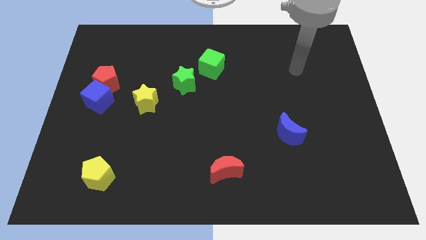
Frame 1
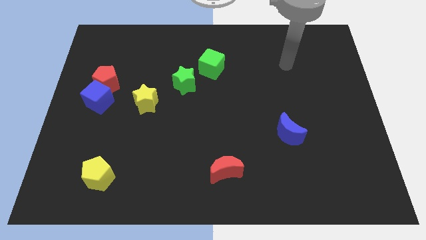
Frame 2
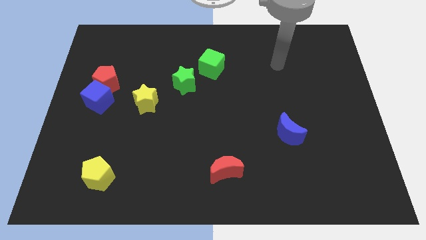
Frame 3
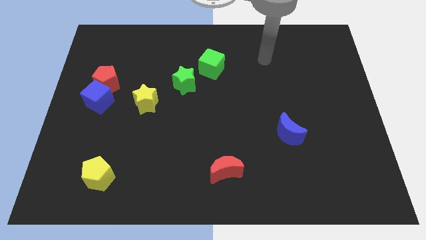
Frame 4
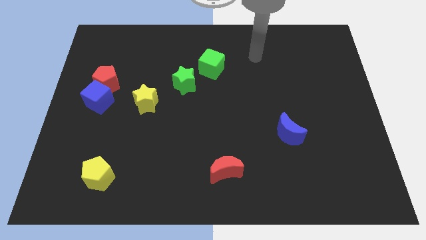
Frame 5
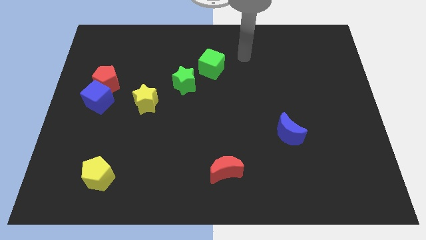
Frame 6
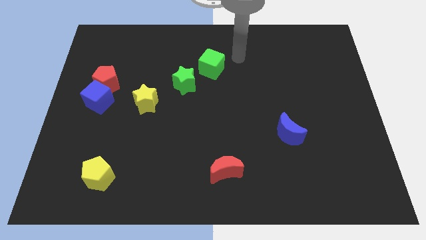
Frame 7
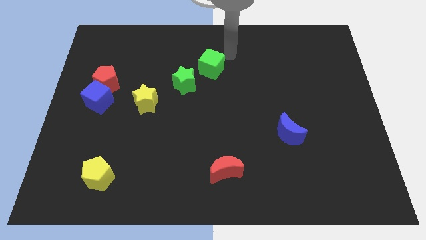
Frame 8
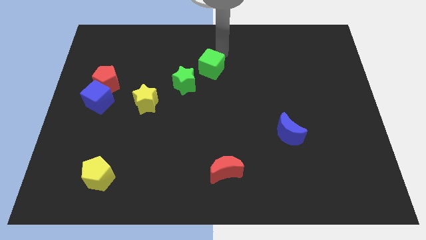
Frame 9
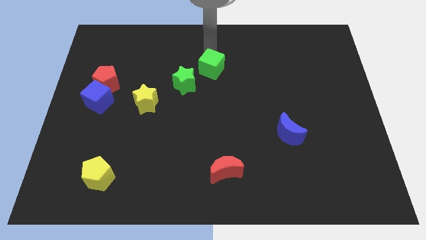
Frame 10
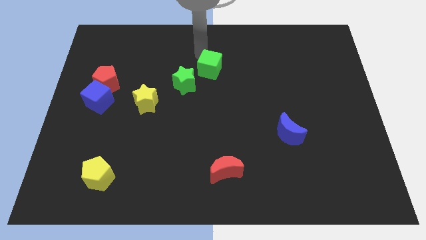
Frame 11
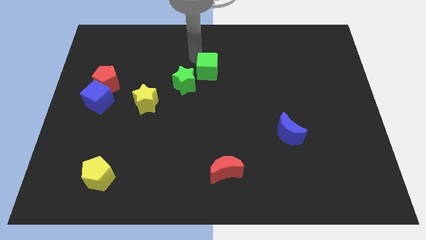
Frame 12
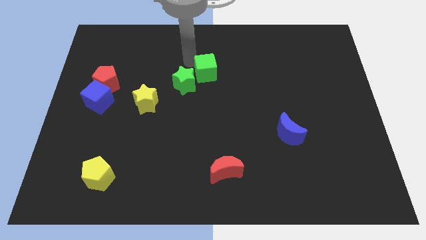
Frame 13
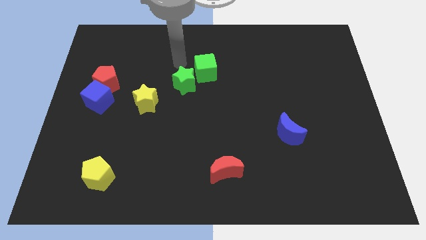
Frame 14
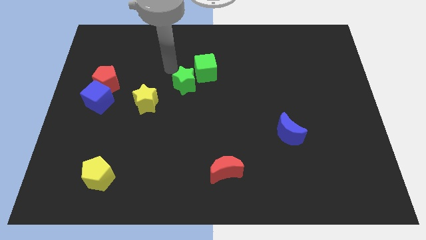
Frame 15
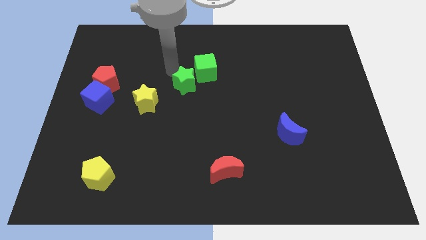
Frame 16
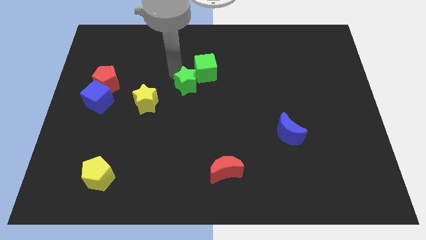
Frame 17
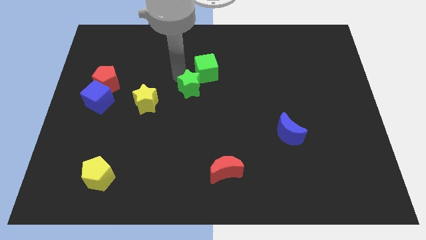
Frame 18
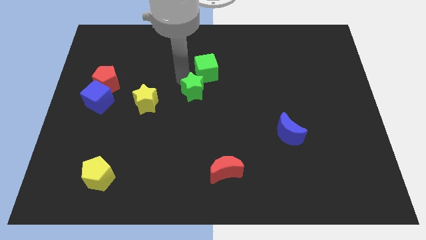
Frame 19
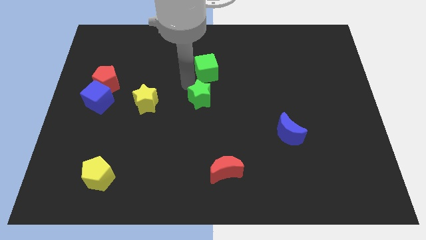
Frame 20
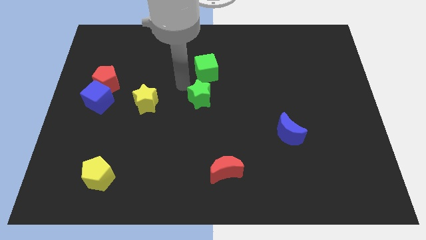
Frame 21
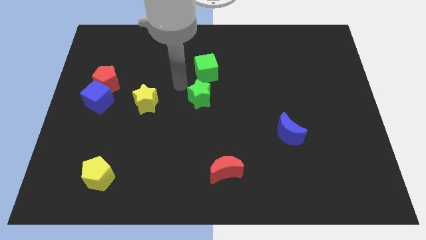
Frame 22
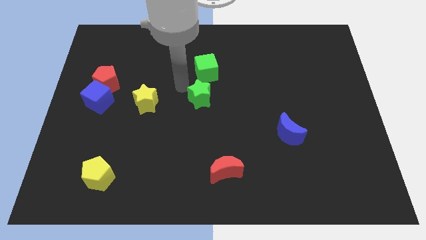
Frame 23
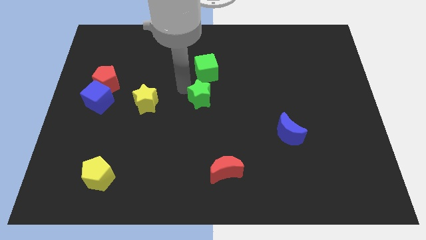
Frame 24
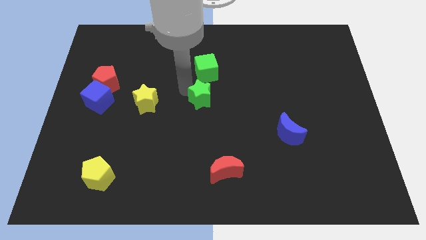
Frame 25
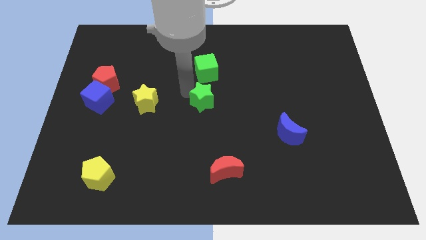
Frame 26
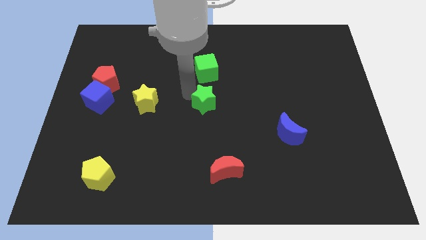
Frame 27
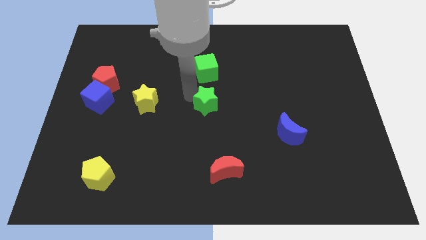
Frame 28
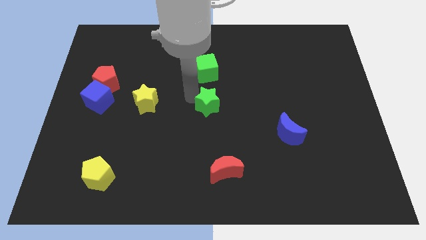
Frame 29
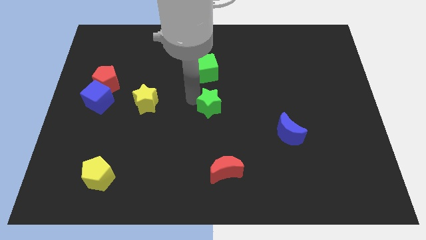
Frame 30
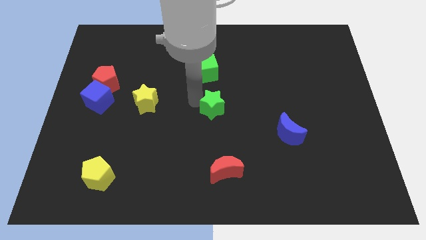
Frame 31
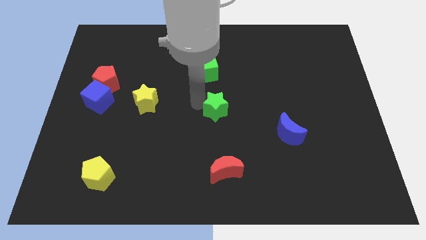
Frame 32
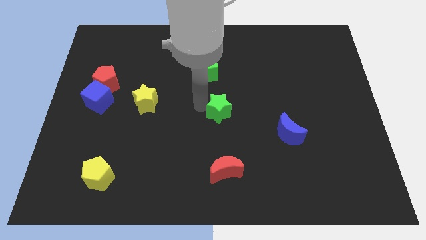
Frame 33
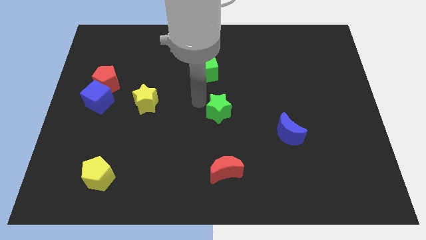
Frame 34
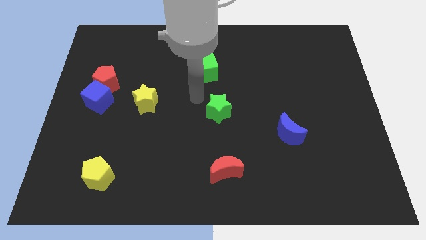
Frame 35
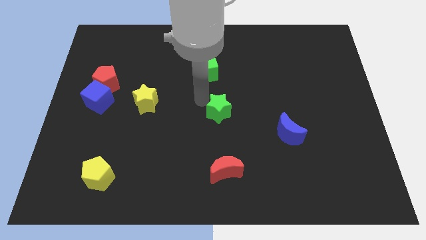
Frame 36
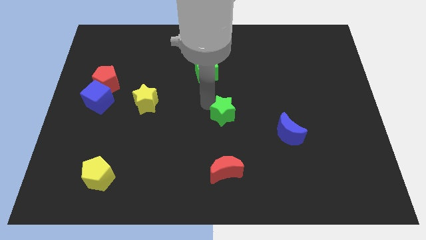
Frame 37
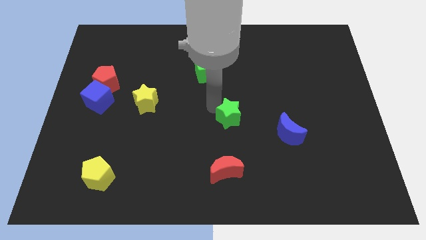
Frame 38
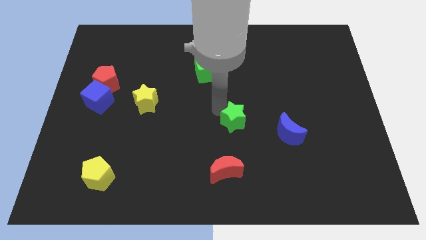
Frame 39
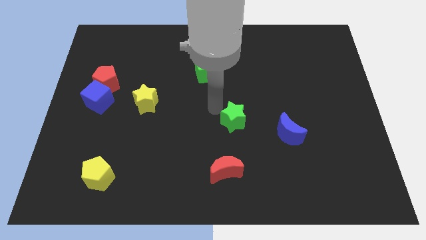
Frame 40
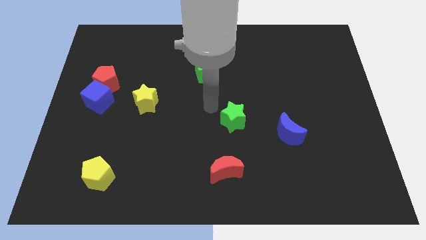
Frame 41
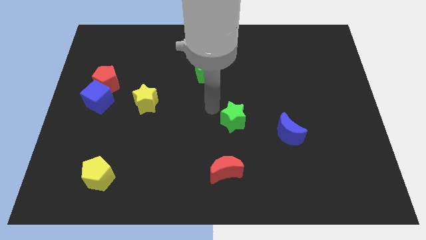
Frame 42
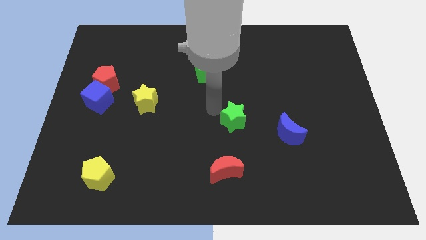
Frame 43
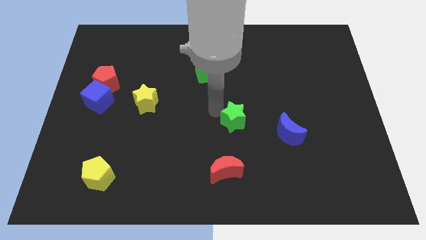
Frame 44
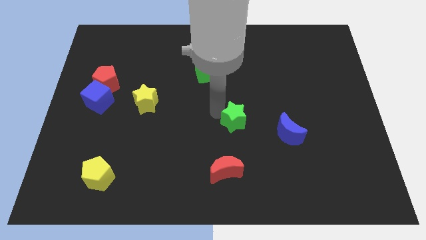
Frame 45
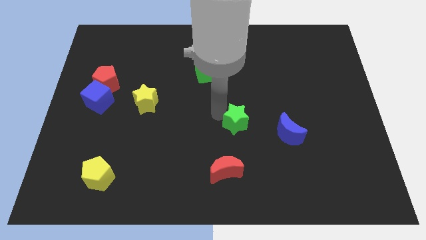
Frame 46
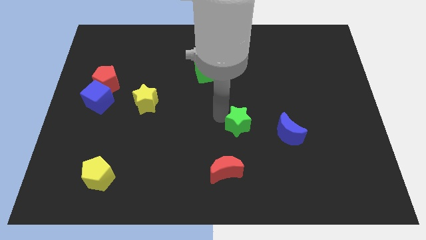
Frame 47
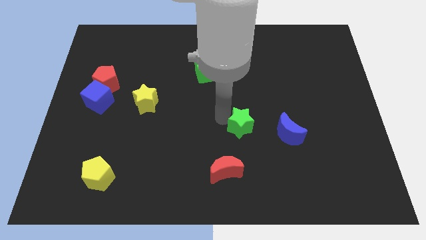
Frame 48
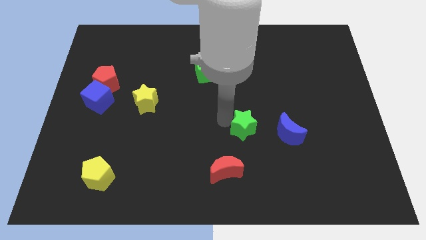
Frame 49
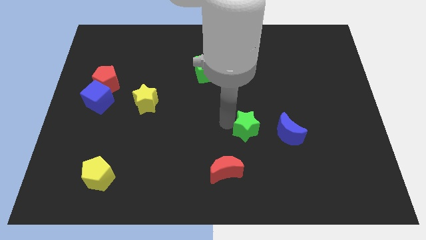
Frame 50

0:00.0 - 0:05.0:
push the green star down and then right

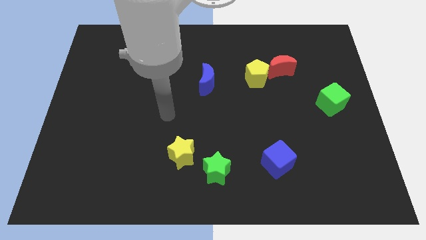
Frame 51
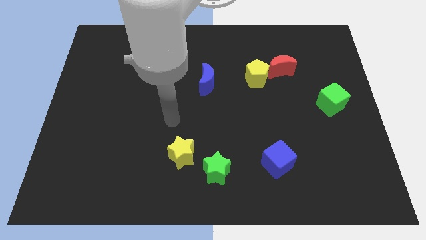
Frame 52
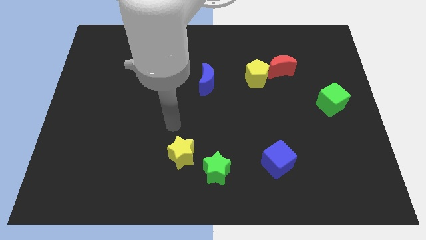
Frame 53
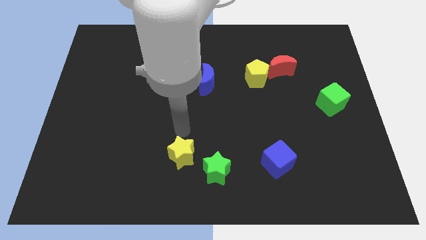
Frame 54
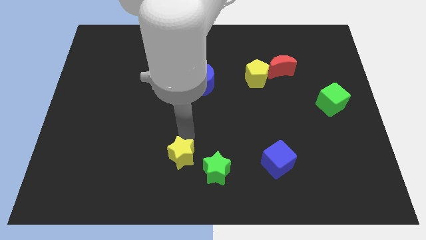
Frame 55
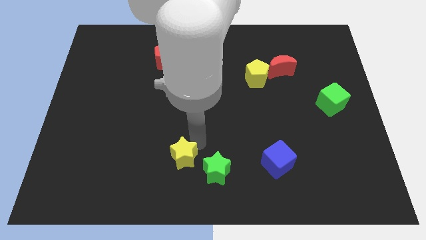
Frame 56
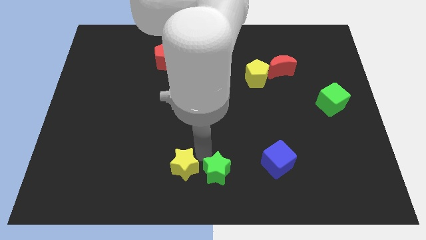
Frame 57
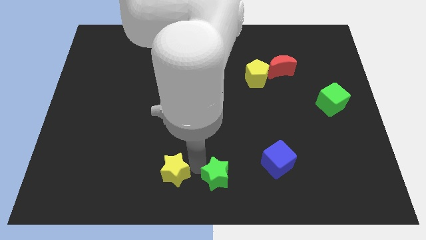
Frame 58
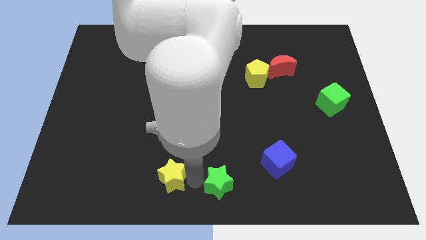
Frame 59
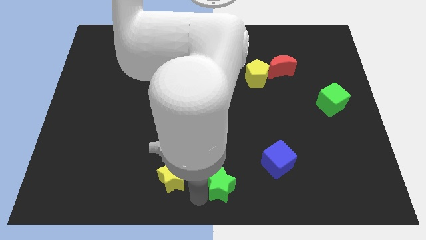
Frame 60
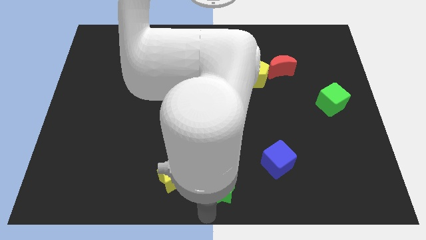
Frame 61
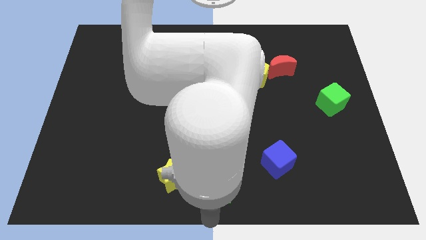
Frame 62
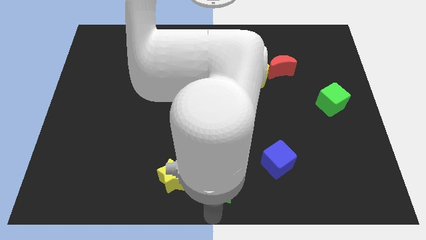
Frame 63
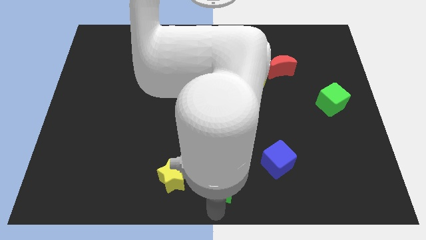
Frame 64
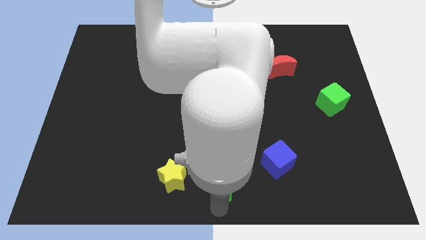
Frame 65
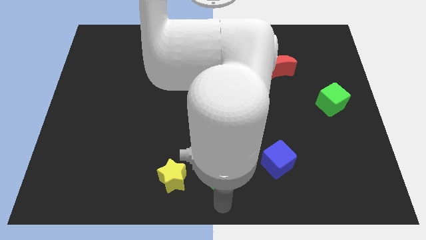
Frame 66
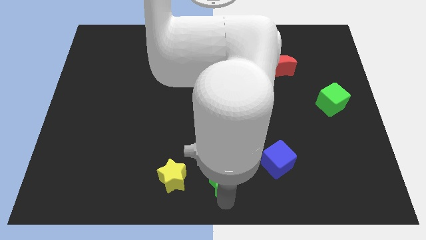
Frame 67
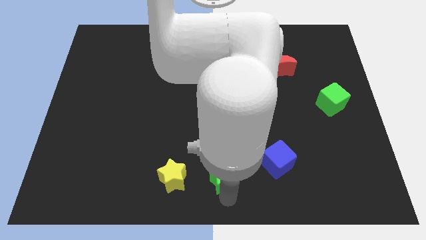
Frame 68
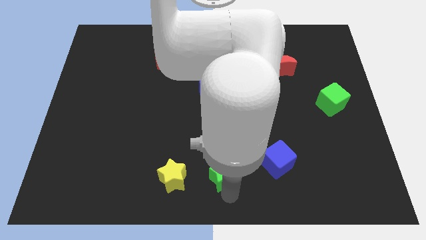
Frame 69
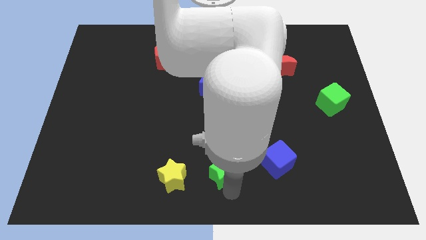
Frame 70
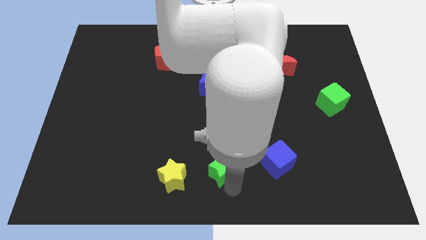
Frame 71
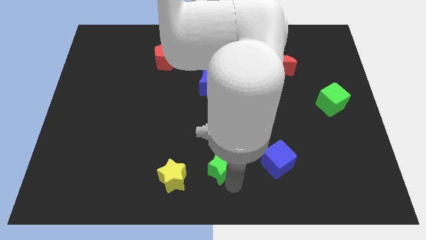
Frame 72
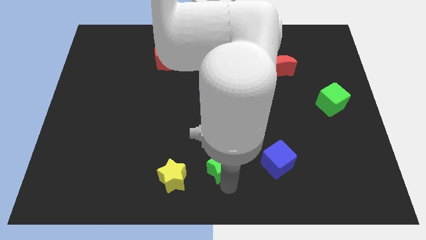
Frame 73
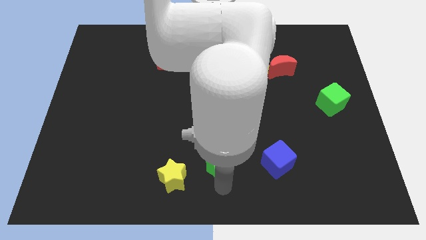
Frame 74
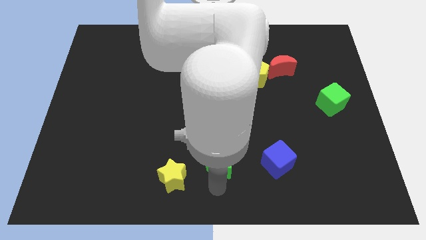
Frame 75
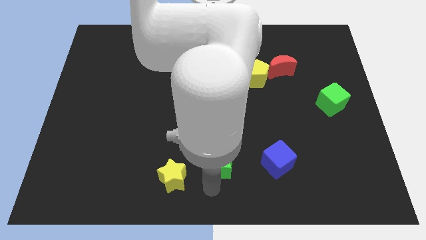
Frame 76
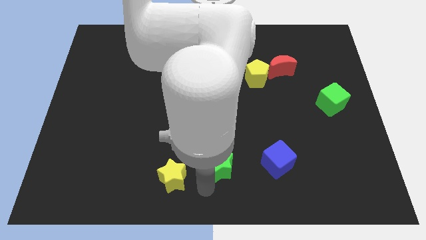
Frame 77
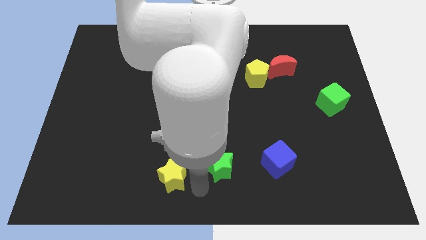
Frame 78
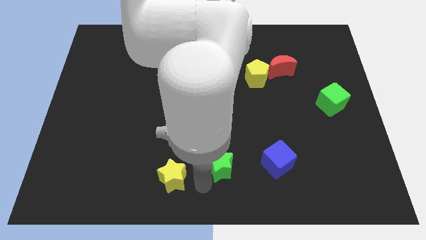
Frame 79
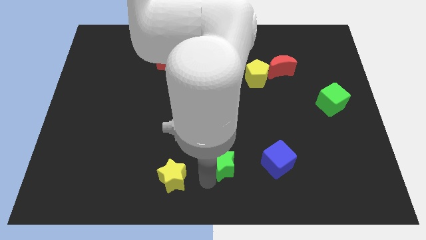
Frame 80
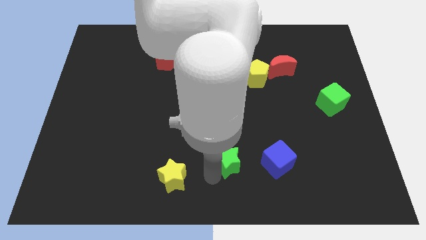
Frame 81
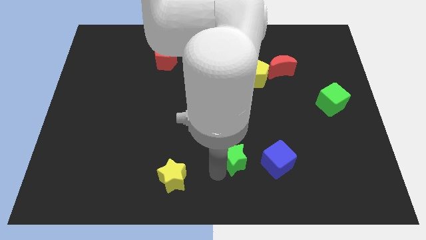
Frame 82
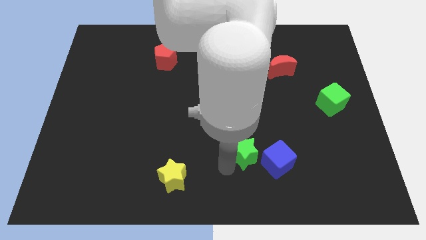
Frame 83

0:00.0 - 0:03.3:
move the green star up and to the right diagonally somewhat
